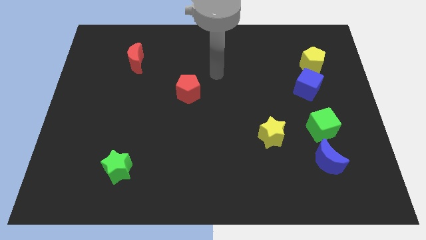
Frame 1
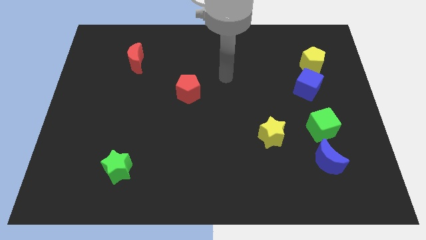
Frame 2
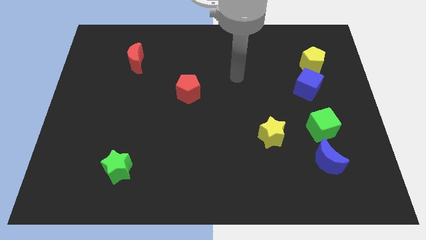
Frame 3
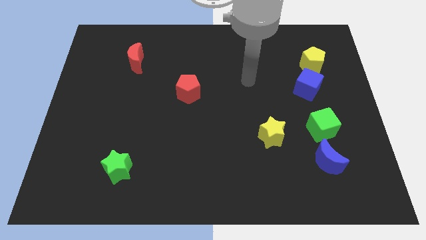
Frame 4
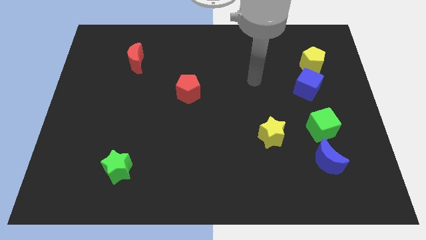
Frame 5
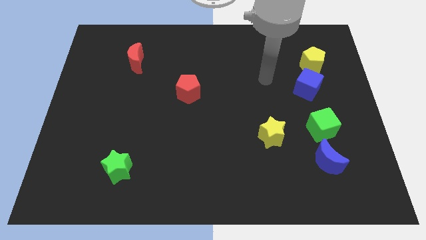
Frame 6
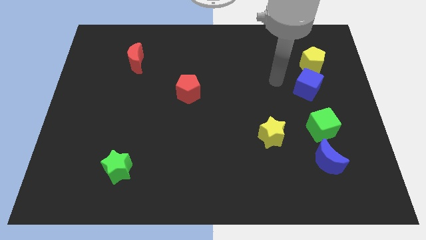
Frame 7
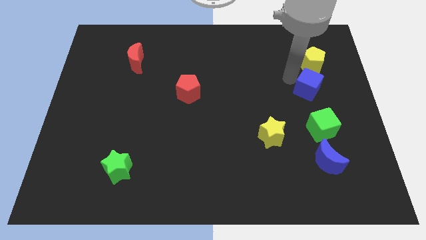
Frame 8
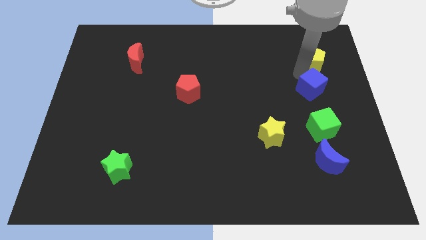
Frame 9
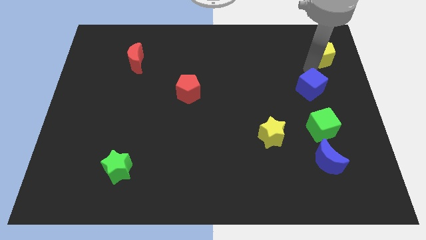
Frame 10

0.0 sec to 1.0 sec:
move the blue cube away from the yellow pentagon

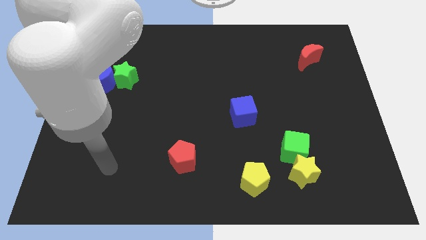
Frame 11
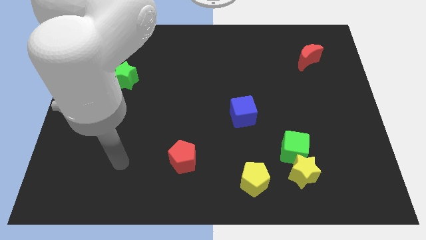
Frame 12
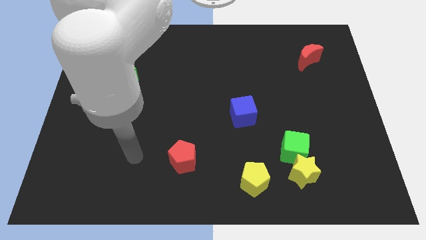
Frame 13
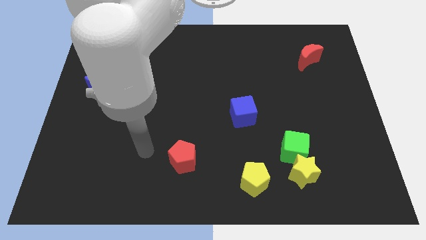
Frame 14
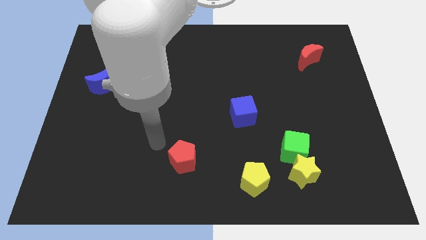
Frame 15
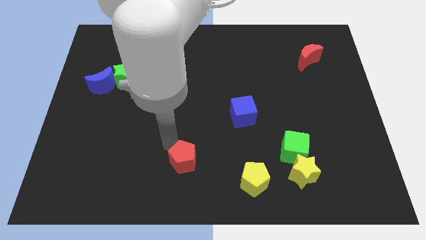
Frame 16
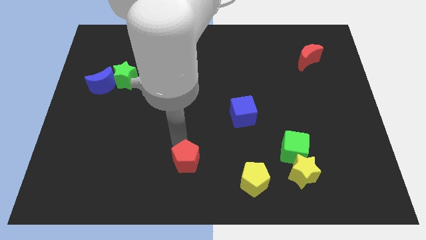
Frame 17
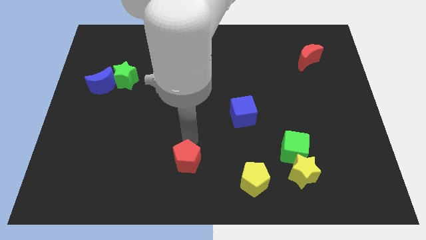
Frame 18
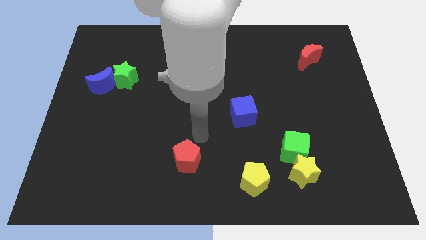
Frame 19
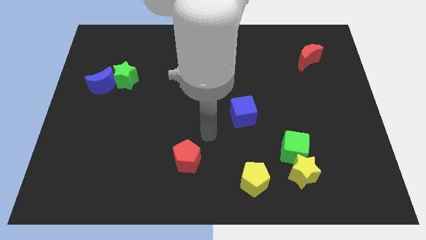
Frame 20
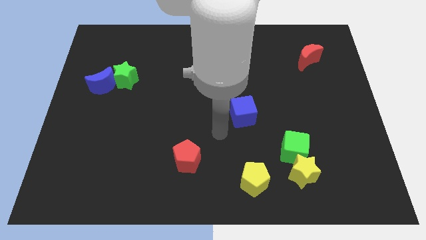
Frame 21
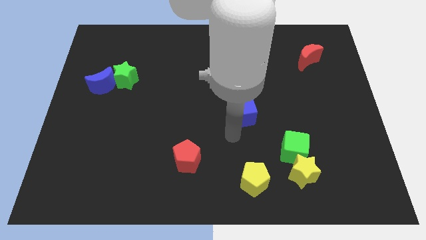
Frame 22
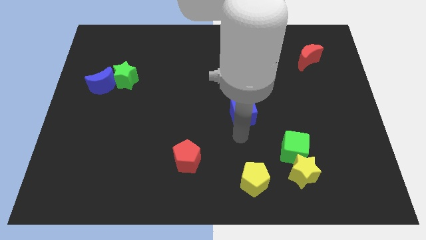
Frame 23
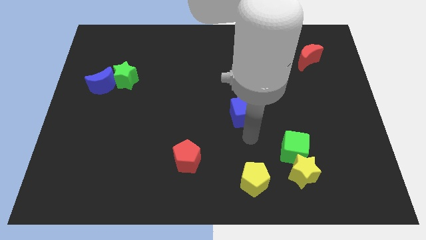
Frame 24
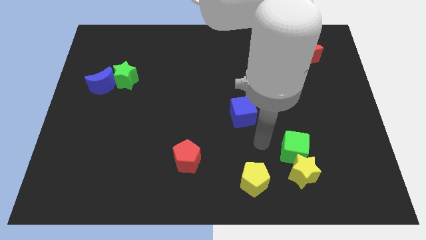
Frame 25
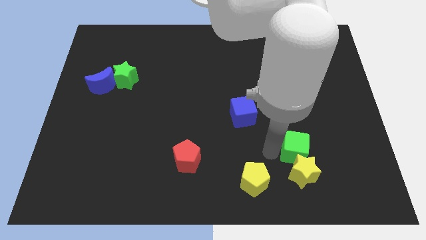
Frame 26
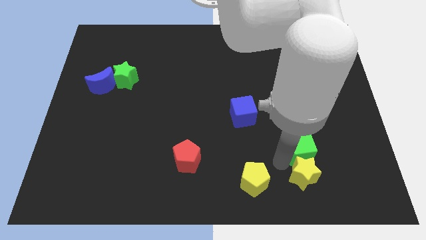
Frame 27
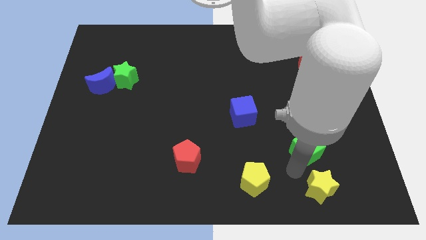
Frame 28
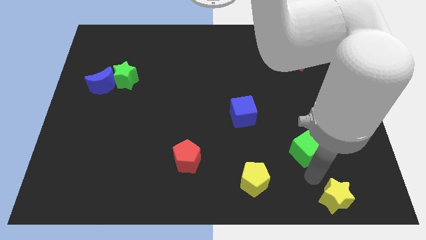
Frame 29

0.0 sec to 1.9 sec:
pull the green cube apart from the yellow star

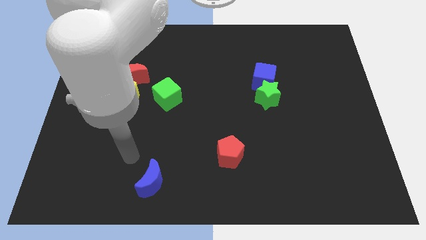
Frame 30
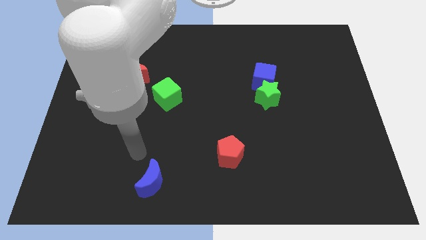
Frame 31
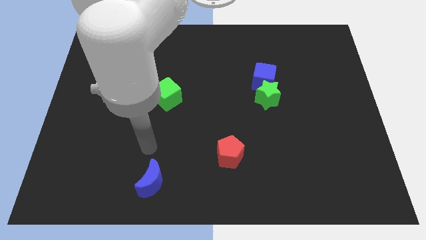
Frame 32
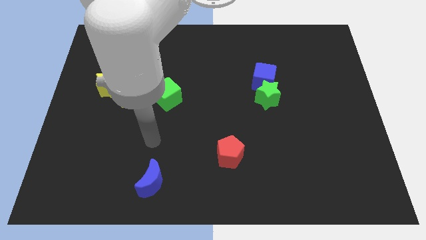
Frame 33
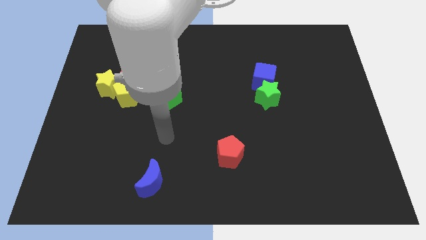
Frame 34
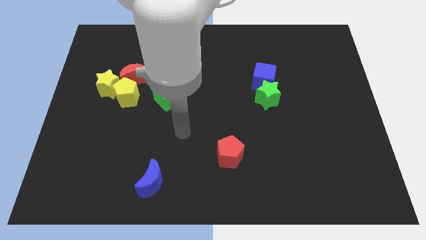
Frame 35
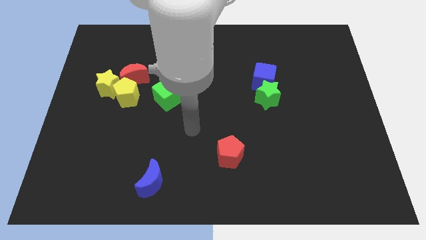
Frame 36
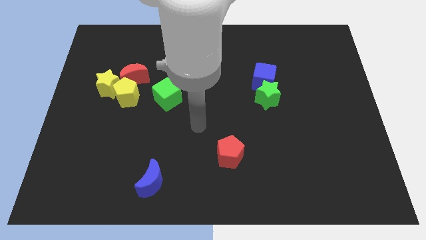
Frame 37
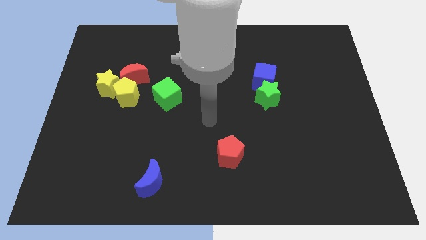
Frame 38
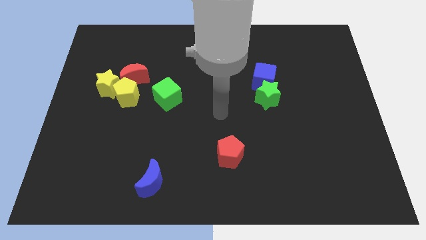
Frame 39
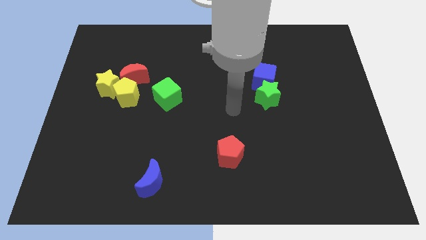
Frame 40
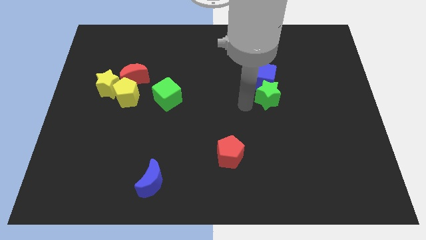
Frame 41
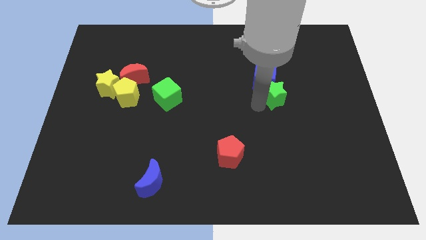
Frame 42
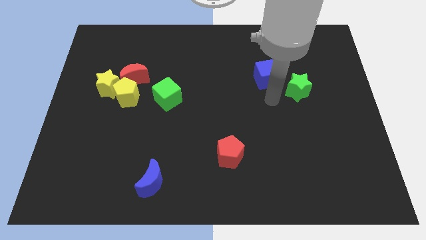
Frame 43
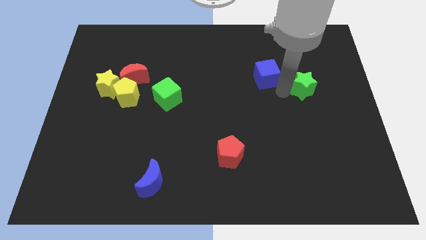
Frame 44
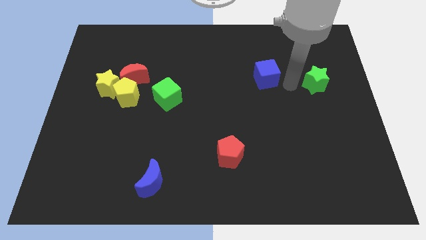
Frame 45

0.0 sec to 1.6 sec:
pull the blue cube apart from the green star

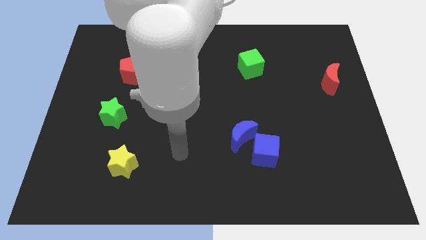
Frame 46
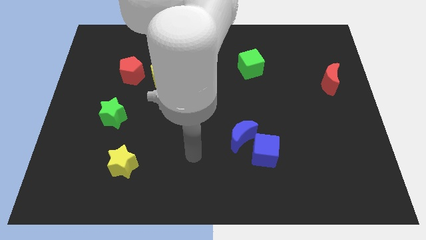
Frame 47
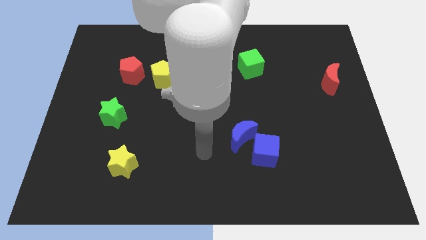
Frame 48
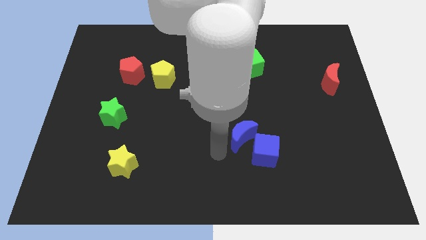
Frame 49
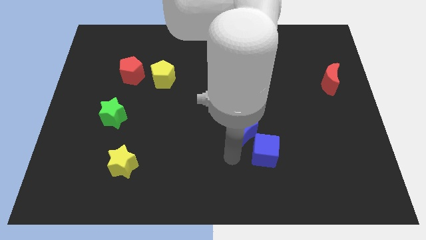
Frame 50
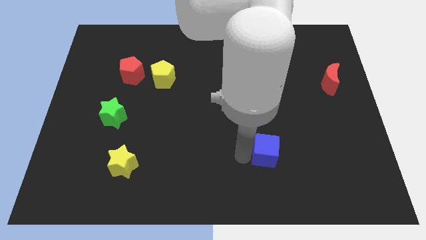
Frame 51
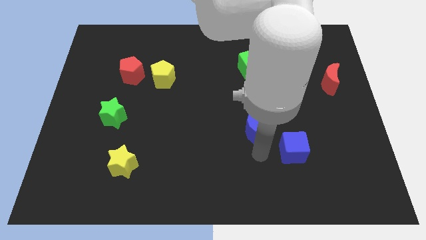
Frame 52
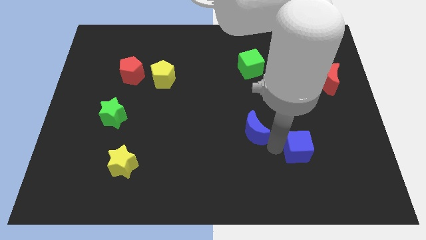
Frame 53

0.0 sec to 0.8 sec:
pull the blue moon apart from the blue cube

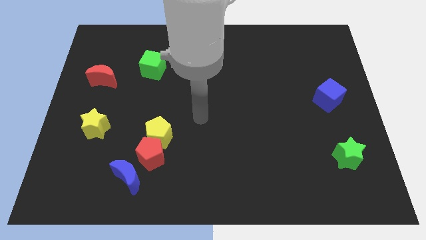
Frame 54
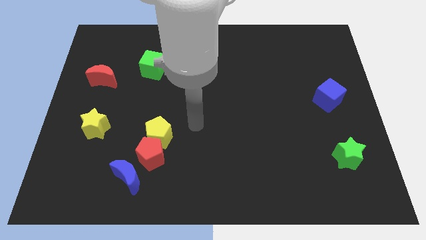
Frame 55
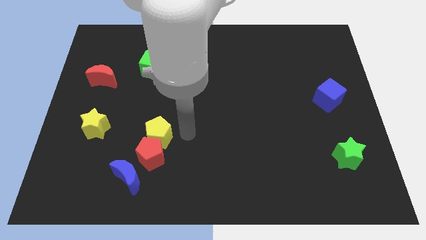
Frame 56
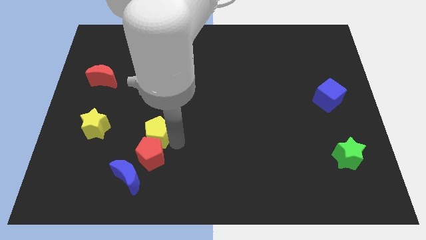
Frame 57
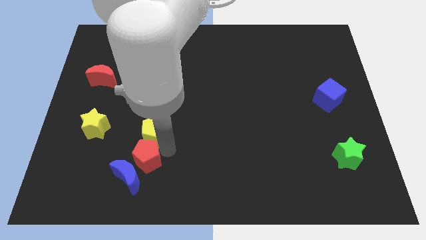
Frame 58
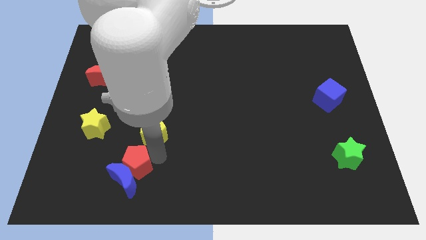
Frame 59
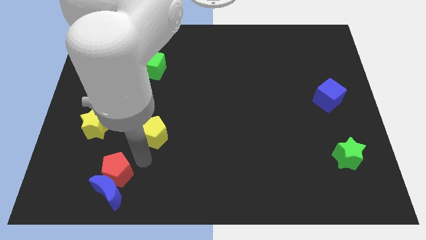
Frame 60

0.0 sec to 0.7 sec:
pull the yellow pentagon apart from the red pentagon

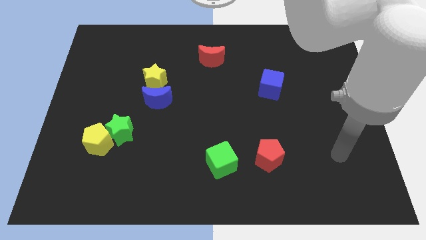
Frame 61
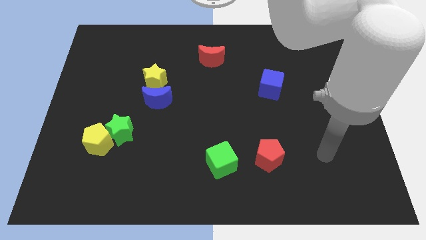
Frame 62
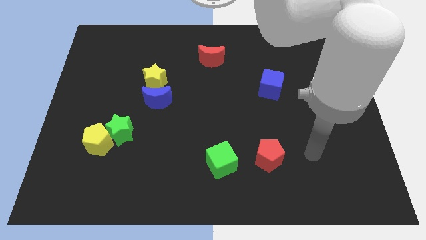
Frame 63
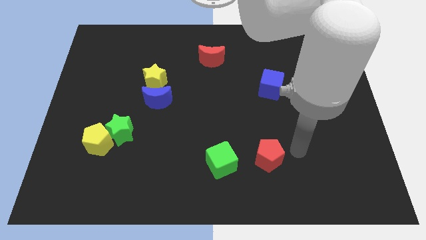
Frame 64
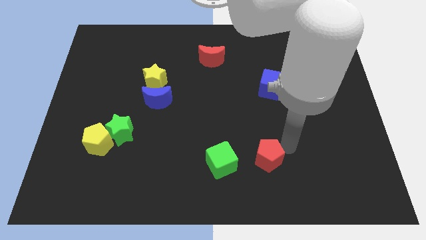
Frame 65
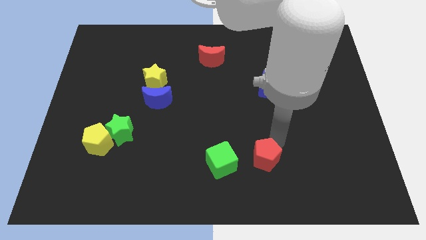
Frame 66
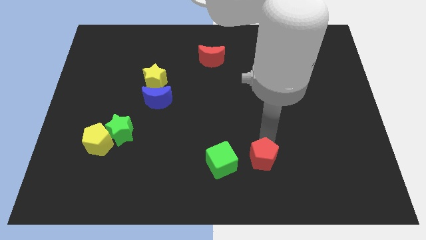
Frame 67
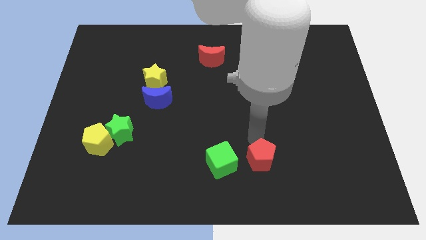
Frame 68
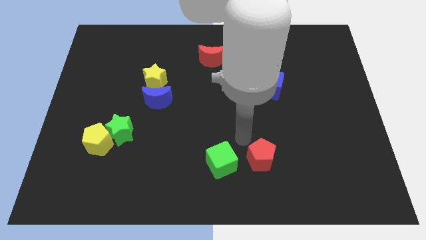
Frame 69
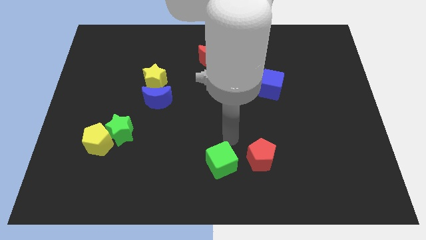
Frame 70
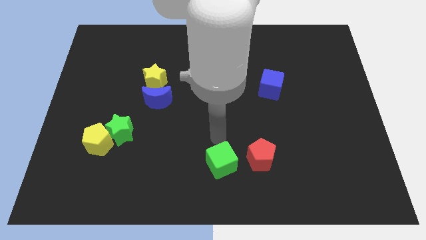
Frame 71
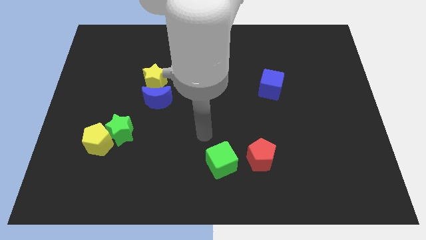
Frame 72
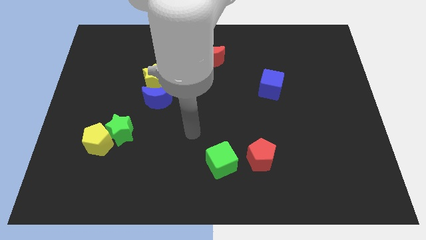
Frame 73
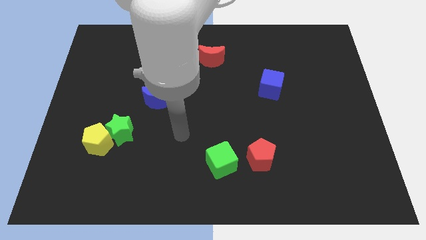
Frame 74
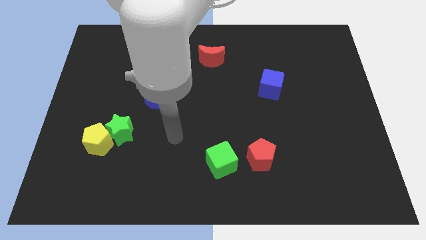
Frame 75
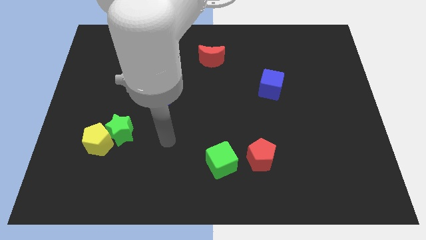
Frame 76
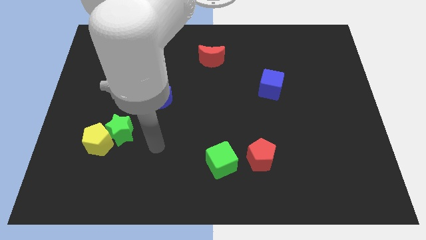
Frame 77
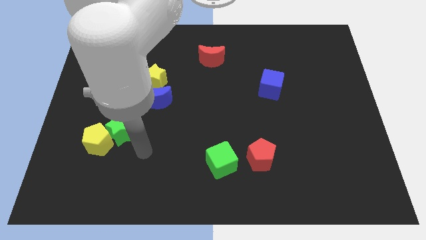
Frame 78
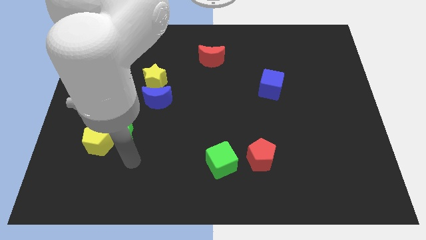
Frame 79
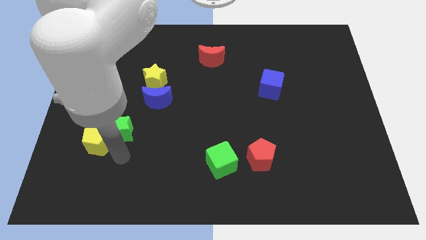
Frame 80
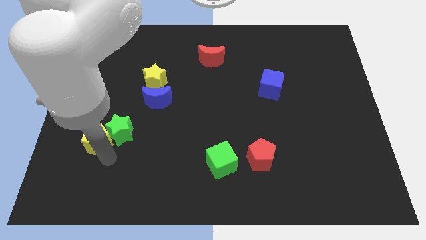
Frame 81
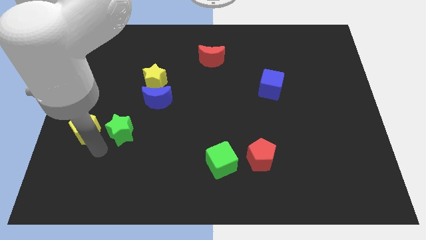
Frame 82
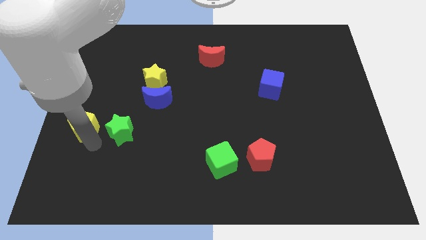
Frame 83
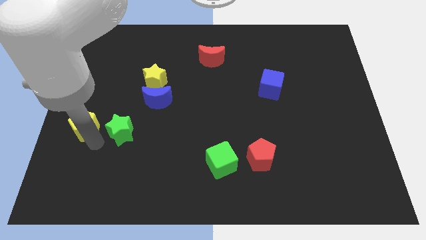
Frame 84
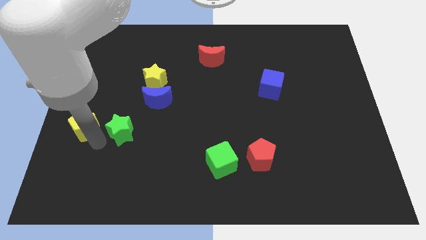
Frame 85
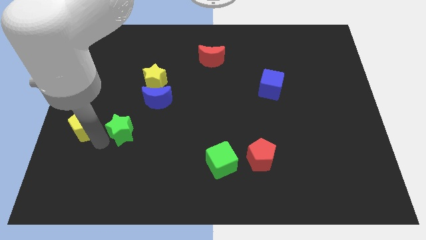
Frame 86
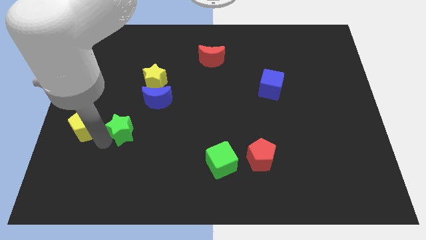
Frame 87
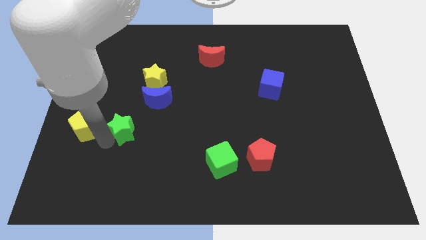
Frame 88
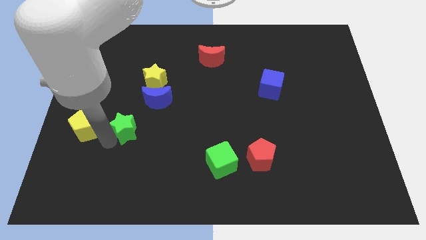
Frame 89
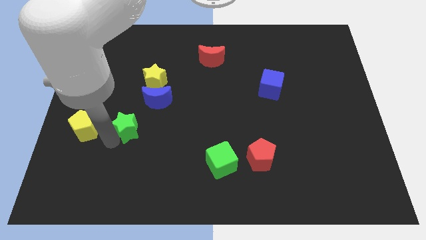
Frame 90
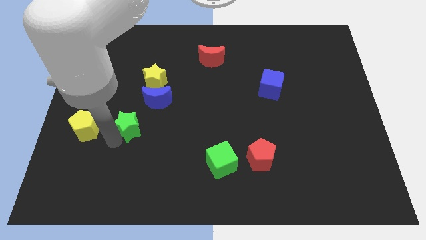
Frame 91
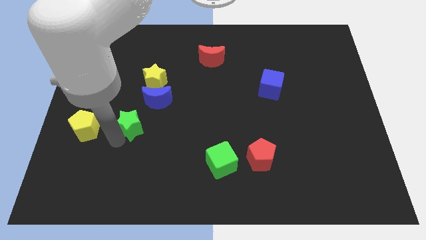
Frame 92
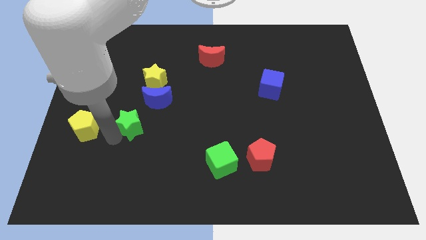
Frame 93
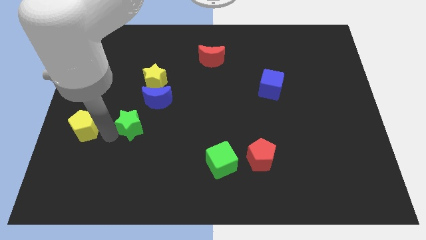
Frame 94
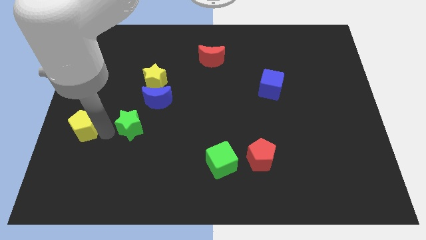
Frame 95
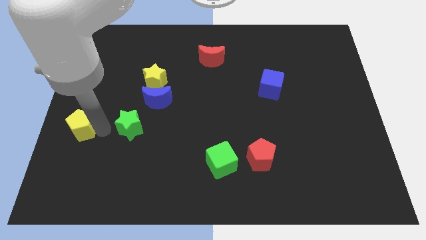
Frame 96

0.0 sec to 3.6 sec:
separate the green star from the yellow pentagon
